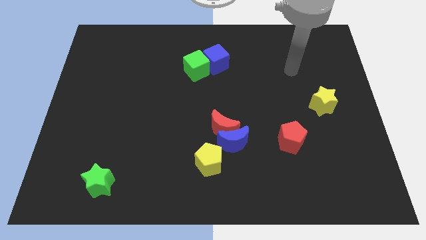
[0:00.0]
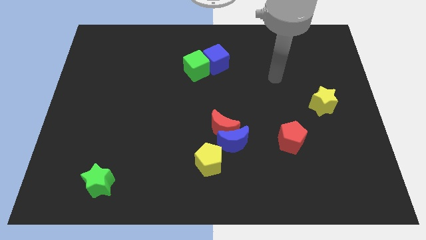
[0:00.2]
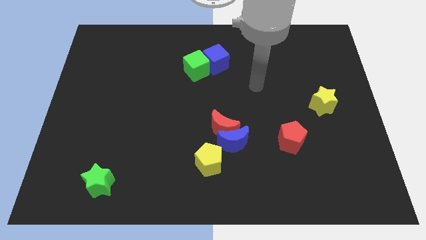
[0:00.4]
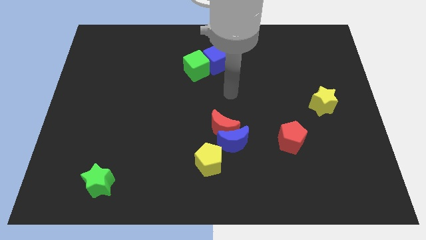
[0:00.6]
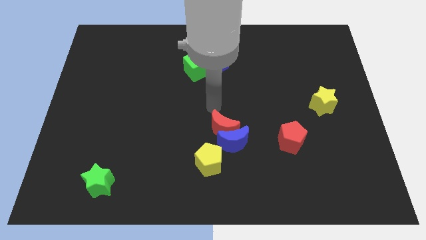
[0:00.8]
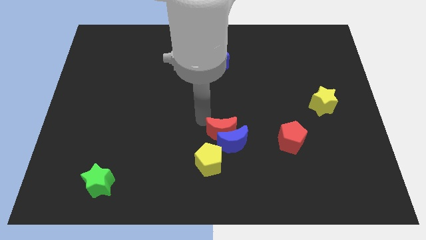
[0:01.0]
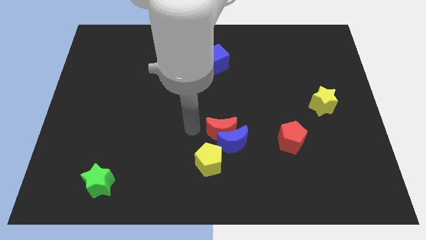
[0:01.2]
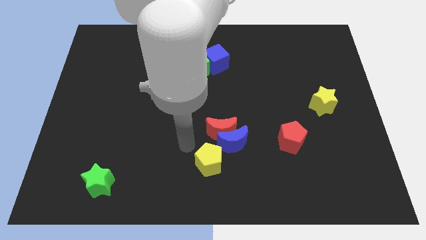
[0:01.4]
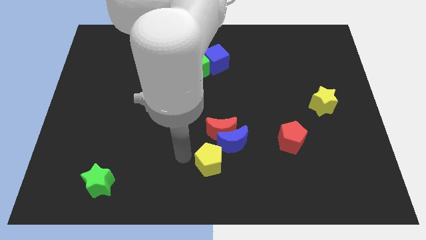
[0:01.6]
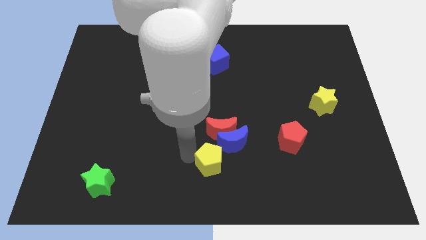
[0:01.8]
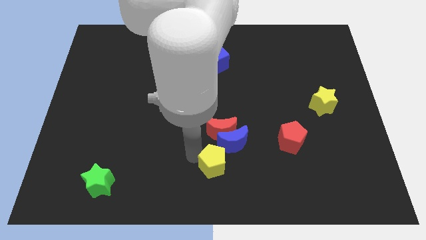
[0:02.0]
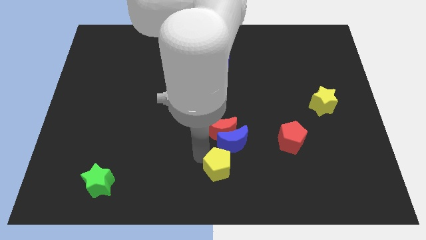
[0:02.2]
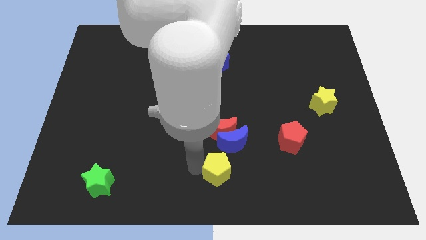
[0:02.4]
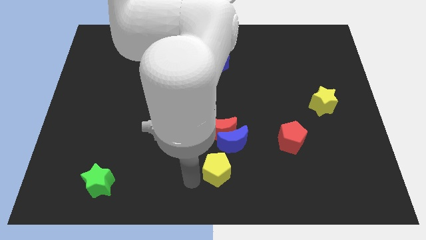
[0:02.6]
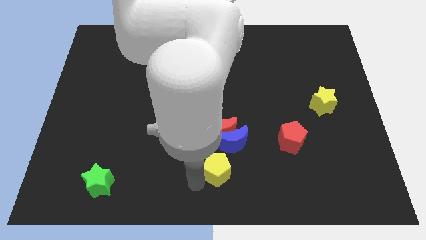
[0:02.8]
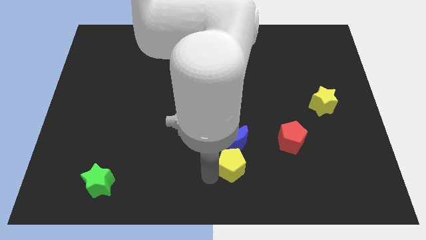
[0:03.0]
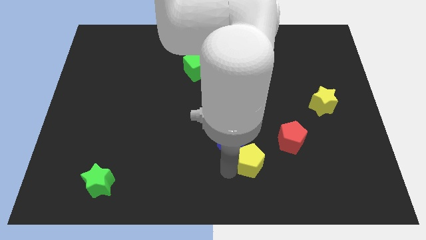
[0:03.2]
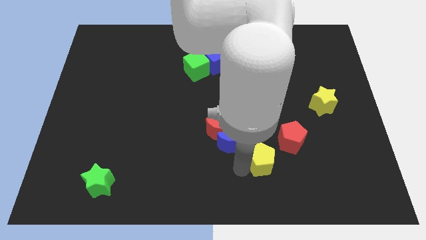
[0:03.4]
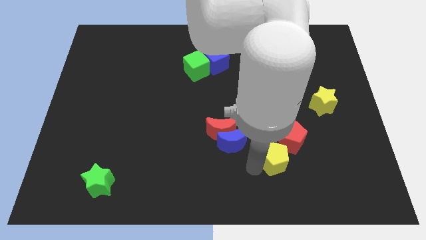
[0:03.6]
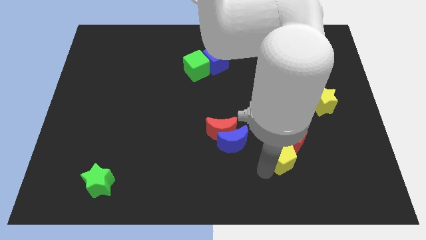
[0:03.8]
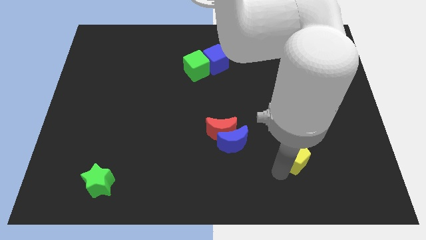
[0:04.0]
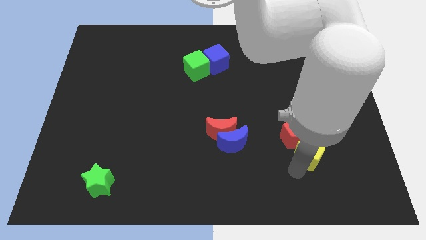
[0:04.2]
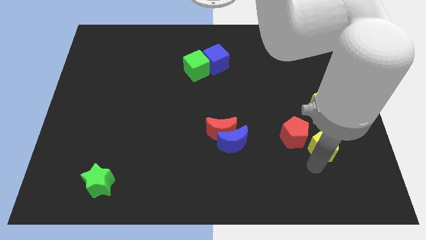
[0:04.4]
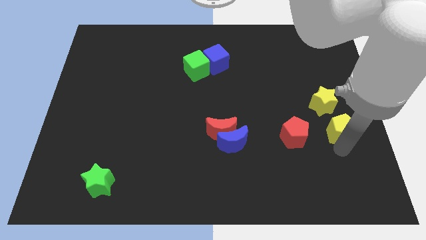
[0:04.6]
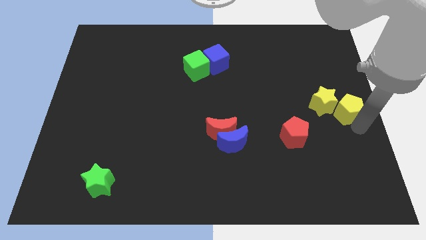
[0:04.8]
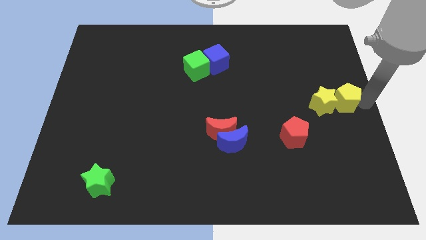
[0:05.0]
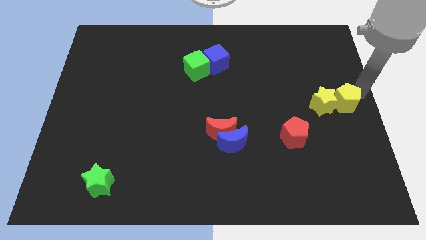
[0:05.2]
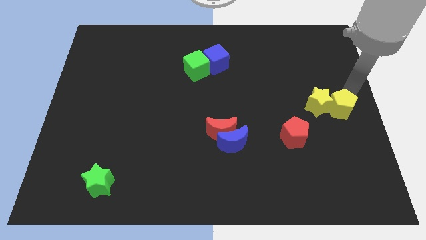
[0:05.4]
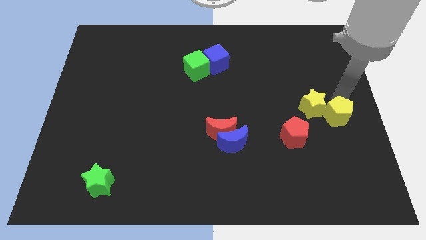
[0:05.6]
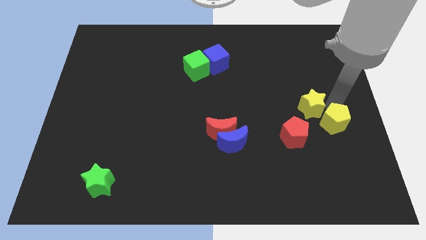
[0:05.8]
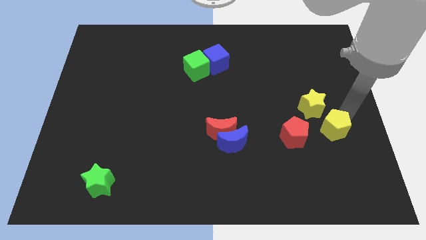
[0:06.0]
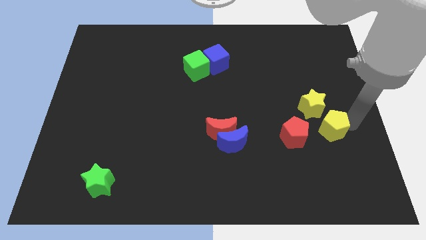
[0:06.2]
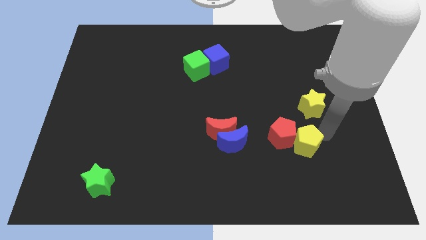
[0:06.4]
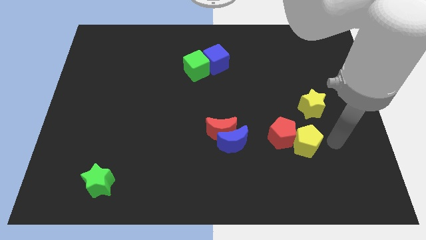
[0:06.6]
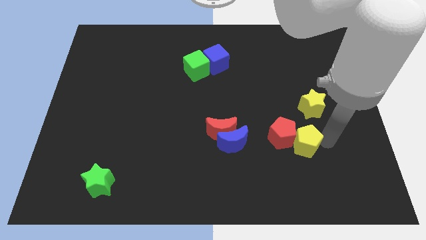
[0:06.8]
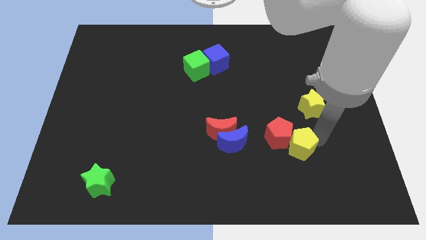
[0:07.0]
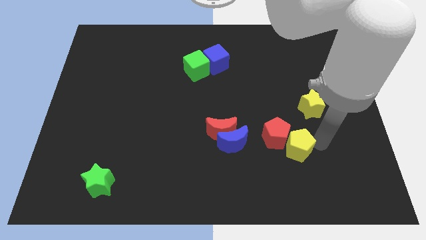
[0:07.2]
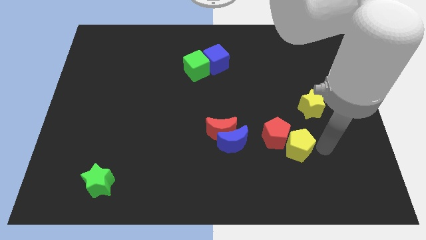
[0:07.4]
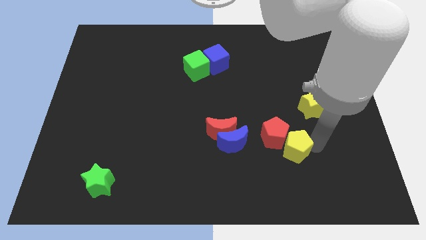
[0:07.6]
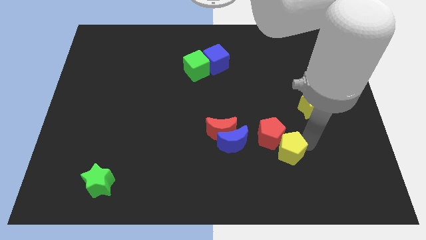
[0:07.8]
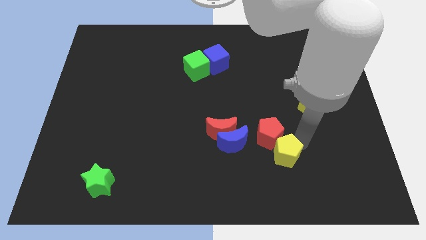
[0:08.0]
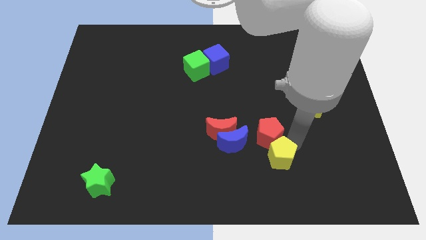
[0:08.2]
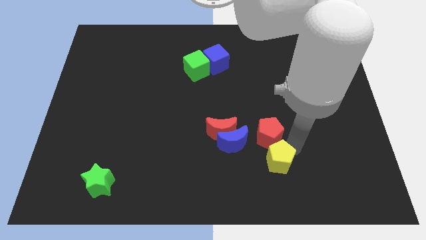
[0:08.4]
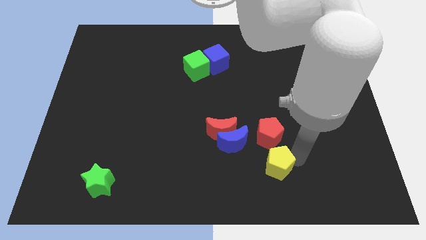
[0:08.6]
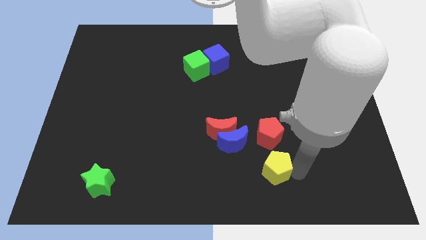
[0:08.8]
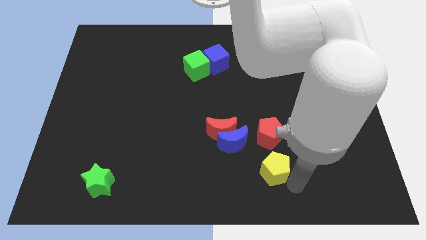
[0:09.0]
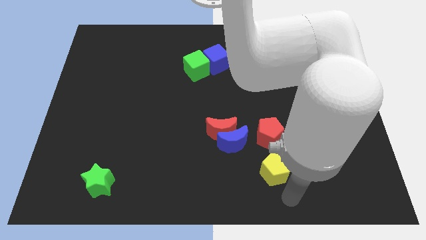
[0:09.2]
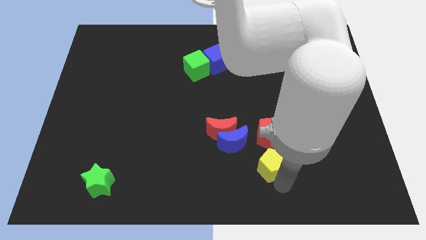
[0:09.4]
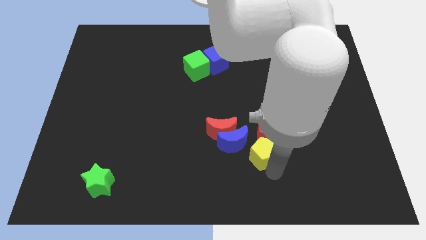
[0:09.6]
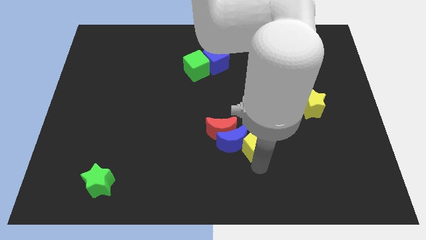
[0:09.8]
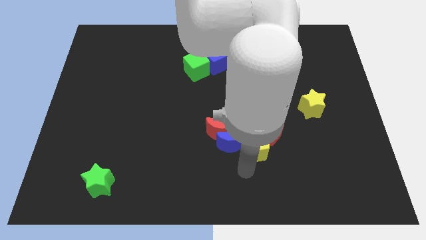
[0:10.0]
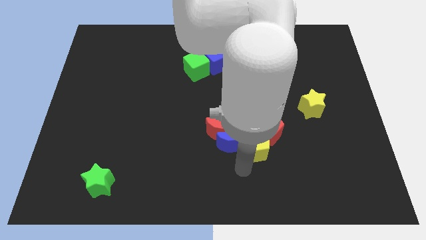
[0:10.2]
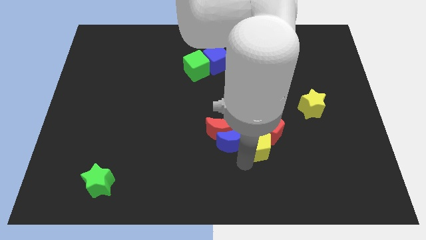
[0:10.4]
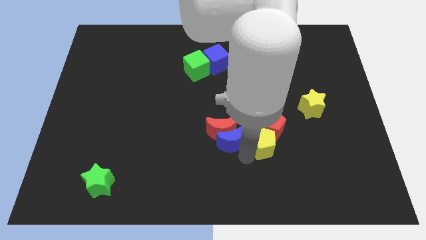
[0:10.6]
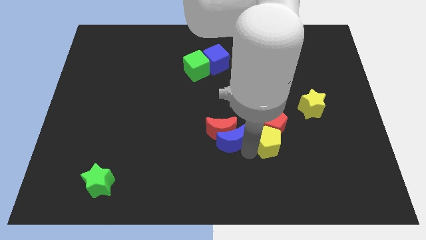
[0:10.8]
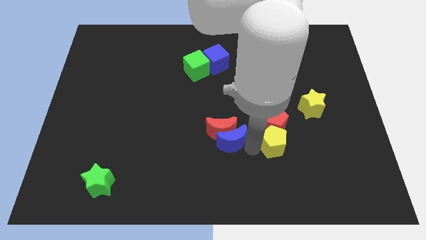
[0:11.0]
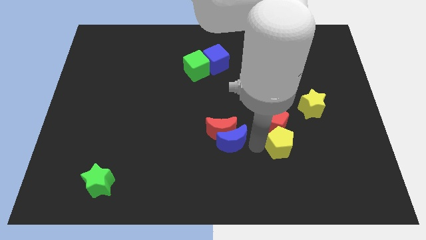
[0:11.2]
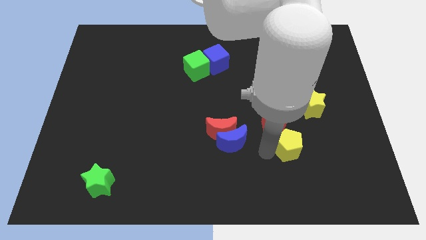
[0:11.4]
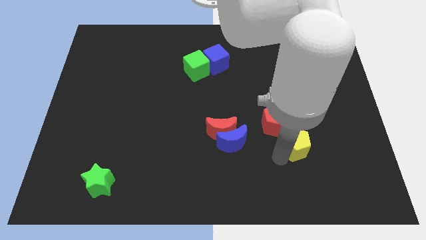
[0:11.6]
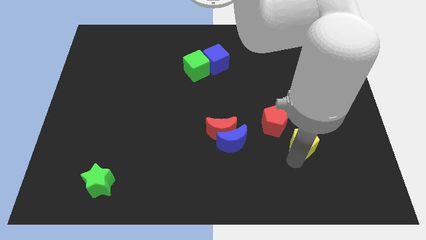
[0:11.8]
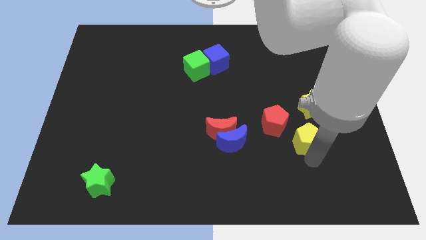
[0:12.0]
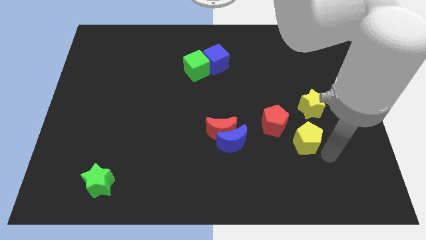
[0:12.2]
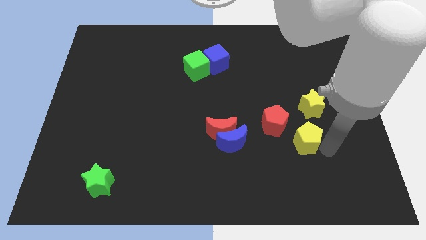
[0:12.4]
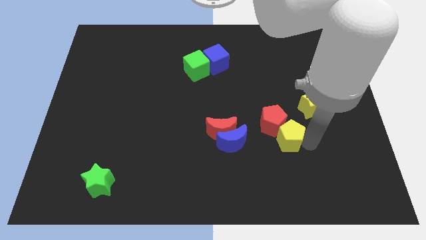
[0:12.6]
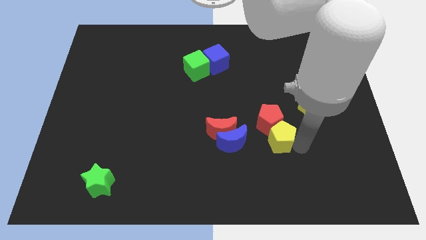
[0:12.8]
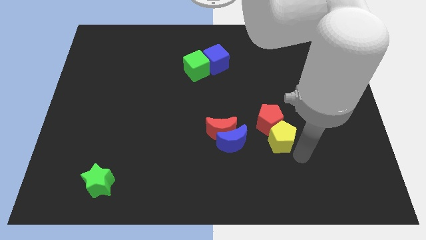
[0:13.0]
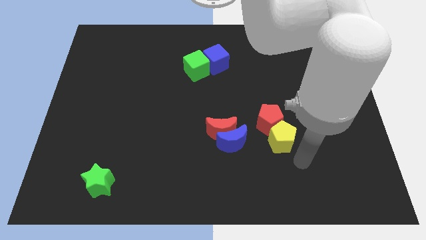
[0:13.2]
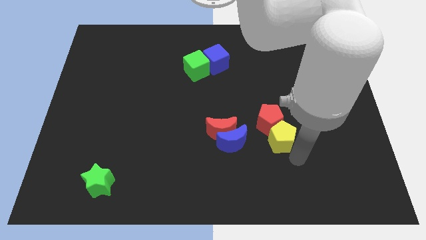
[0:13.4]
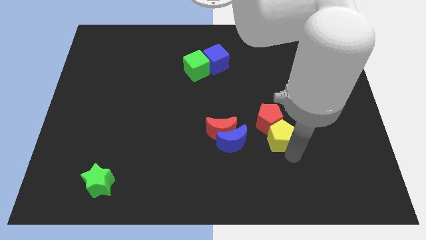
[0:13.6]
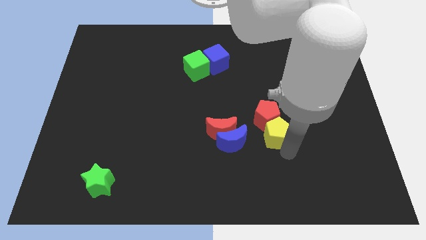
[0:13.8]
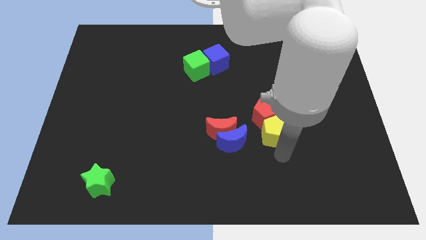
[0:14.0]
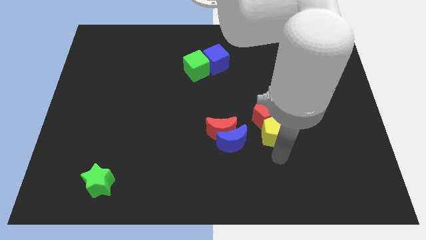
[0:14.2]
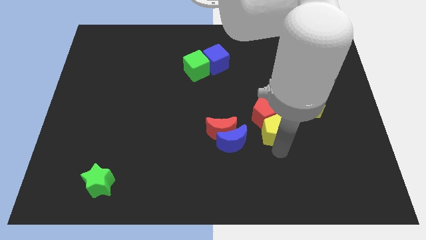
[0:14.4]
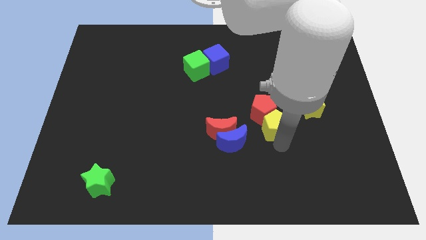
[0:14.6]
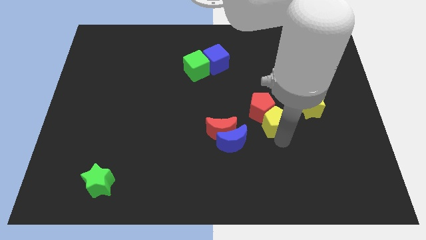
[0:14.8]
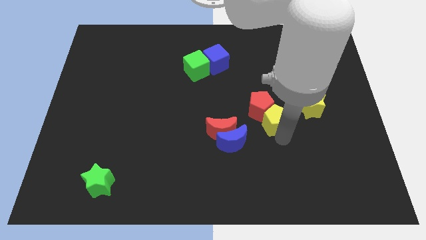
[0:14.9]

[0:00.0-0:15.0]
slide the yellow pentagon just left of the yellow star
